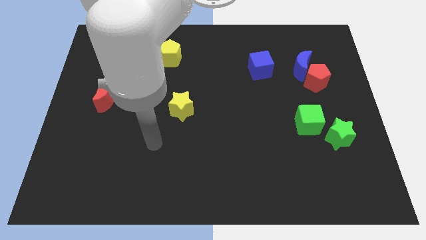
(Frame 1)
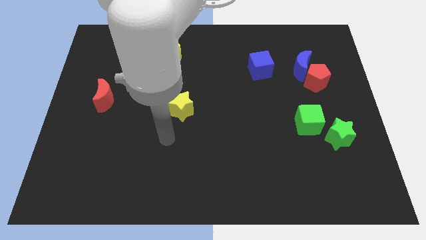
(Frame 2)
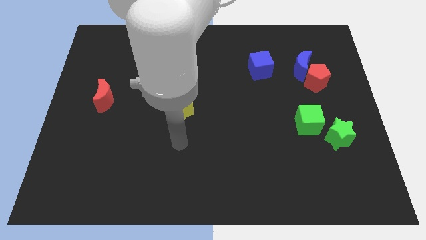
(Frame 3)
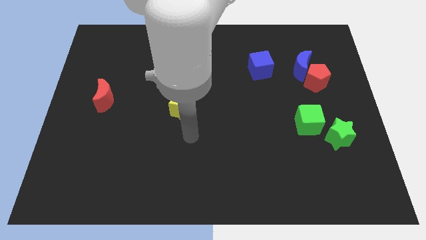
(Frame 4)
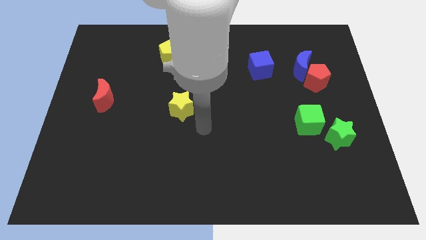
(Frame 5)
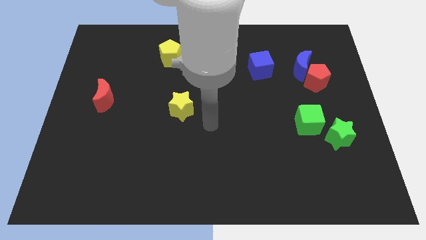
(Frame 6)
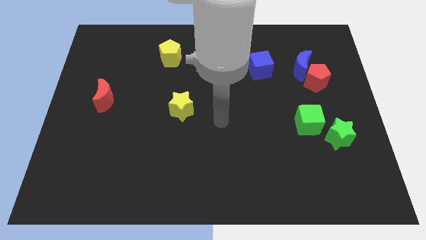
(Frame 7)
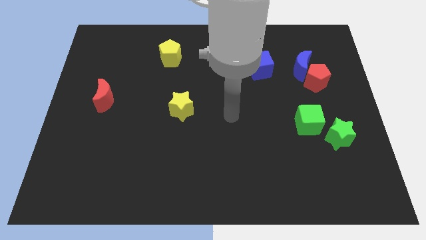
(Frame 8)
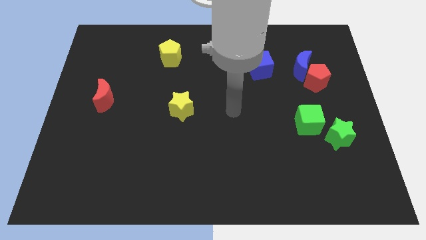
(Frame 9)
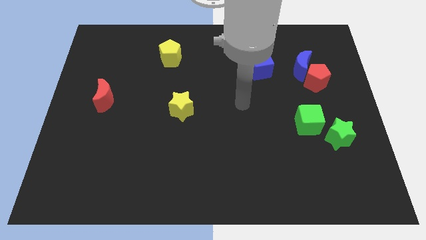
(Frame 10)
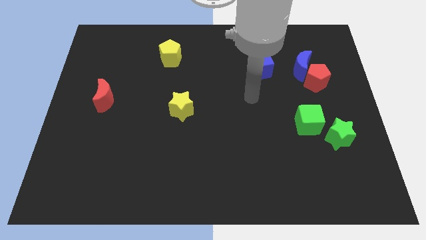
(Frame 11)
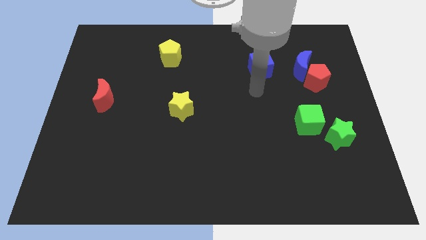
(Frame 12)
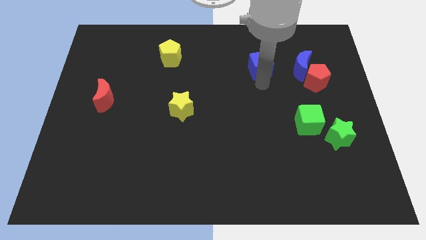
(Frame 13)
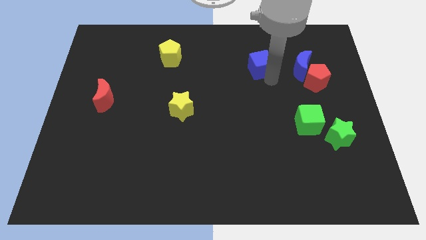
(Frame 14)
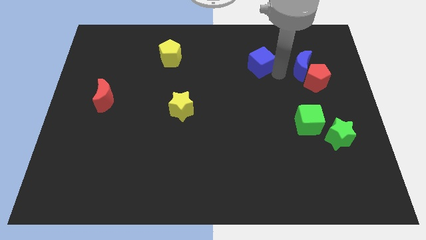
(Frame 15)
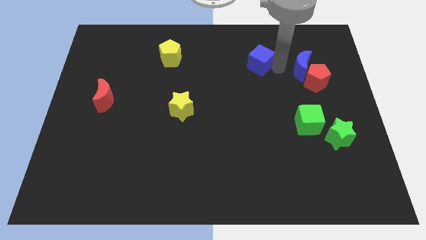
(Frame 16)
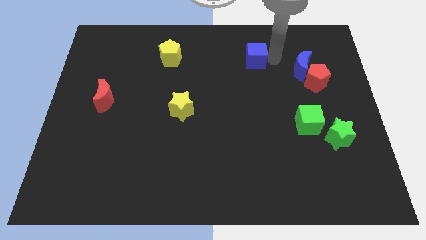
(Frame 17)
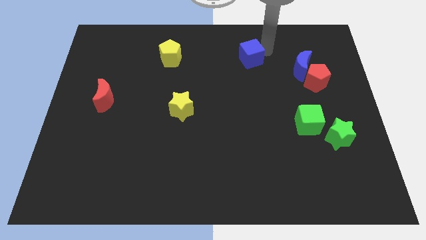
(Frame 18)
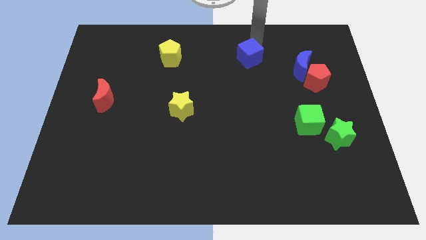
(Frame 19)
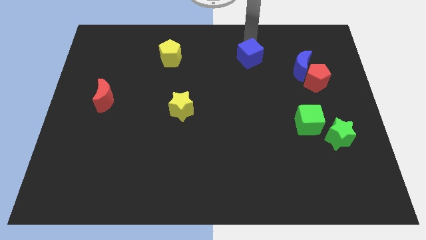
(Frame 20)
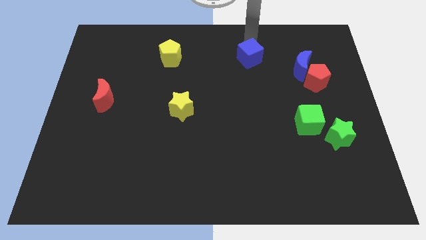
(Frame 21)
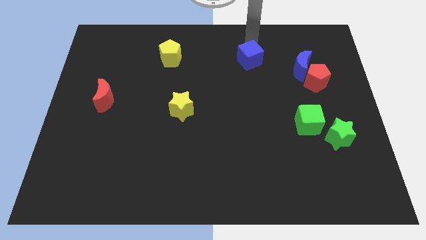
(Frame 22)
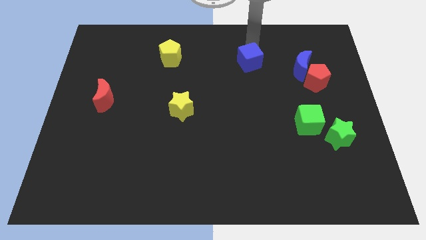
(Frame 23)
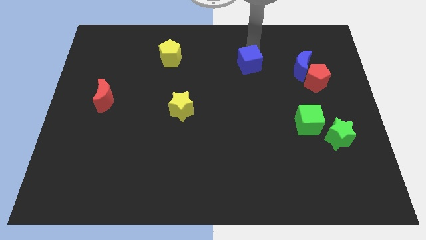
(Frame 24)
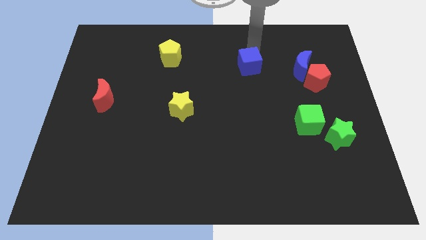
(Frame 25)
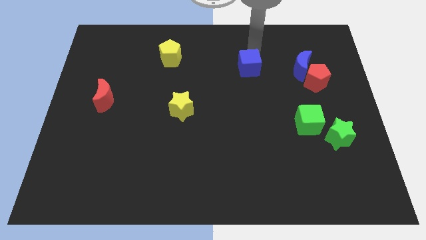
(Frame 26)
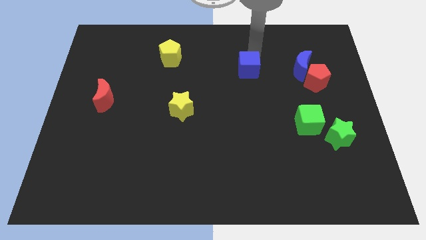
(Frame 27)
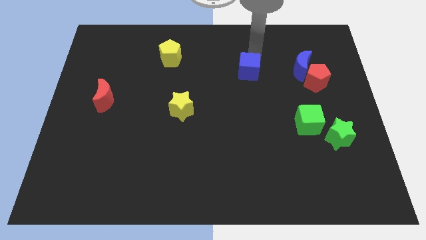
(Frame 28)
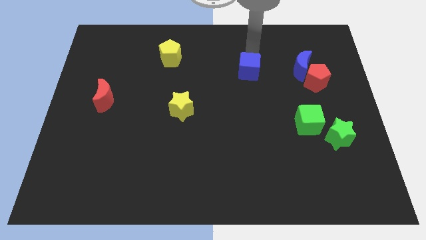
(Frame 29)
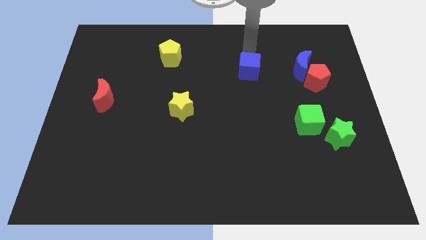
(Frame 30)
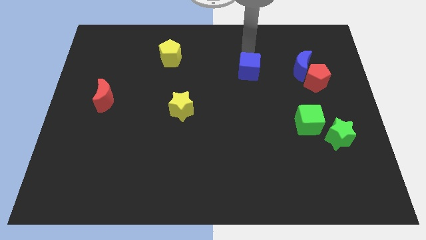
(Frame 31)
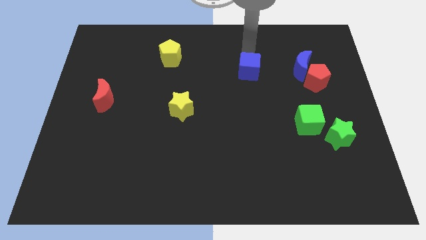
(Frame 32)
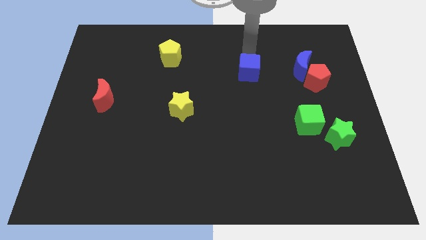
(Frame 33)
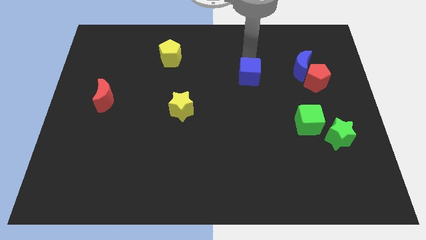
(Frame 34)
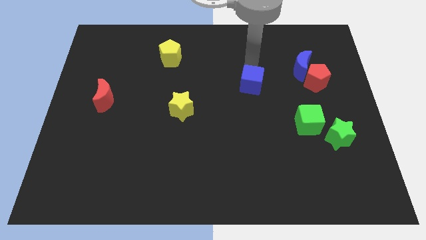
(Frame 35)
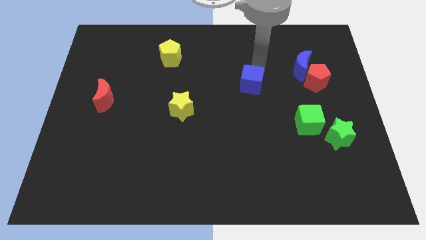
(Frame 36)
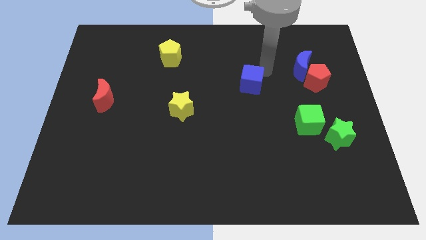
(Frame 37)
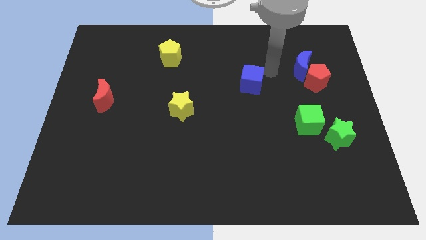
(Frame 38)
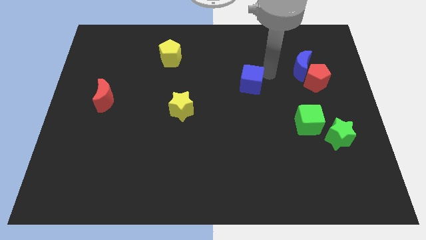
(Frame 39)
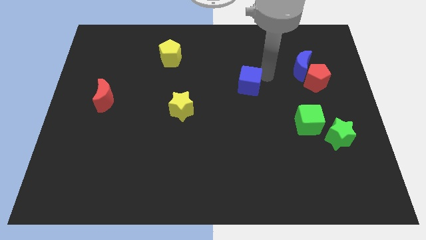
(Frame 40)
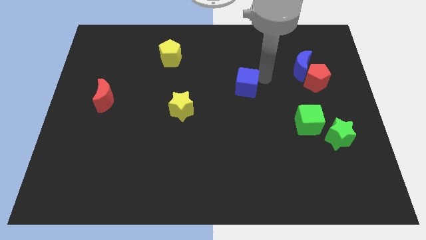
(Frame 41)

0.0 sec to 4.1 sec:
slightly slide the blue cube down and to the left

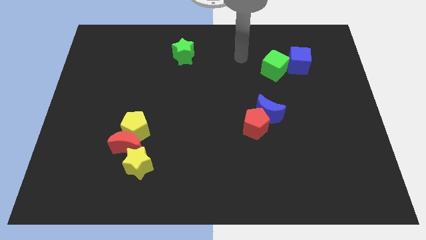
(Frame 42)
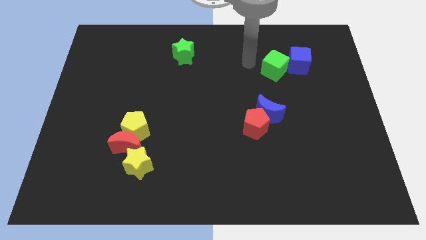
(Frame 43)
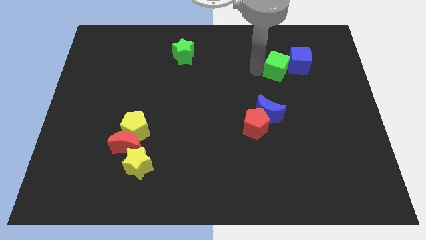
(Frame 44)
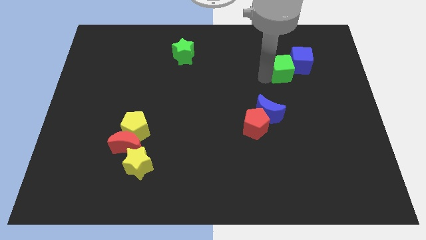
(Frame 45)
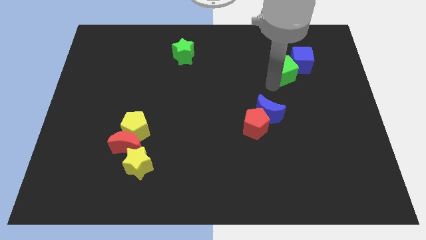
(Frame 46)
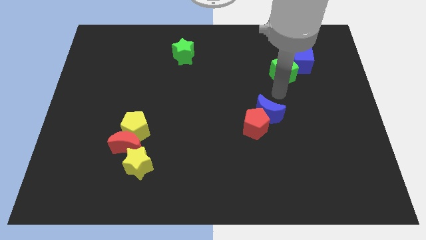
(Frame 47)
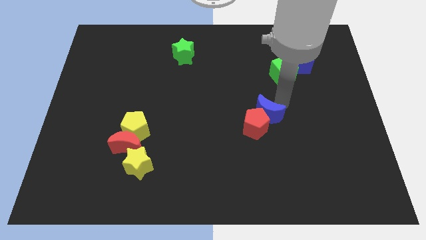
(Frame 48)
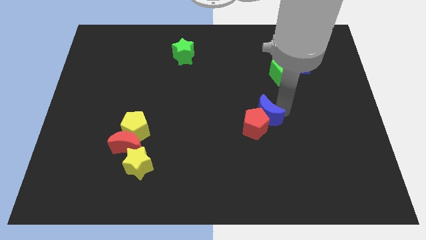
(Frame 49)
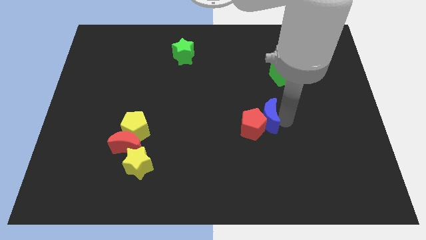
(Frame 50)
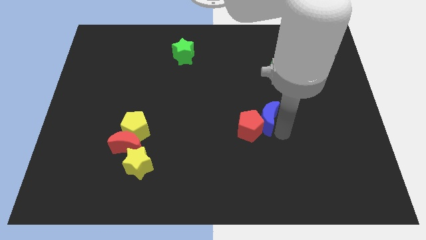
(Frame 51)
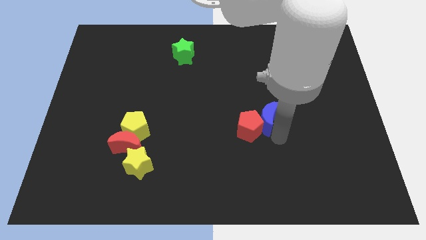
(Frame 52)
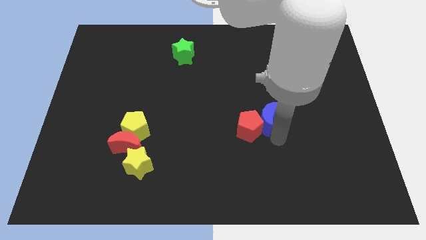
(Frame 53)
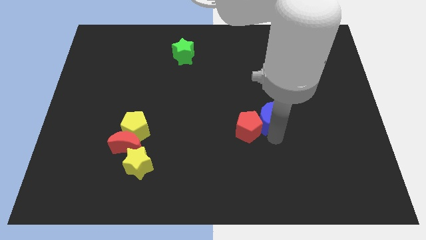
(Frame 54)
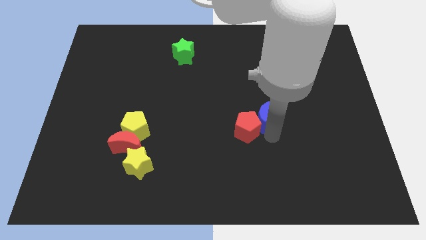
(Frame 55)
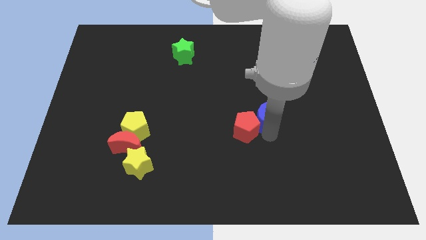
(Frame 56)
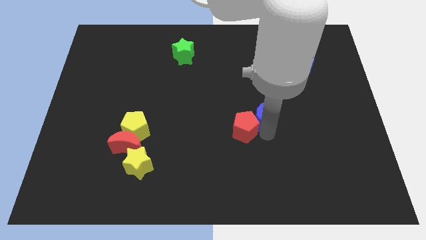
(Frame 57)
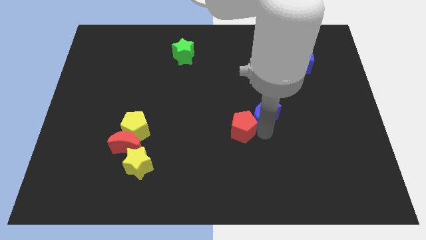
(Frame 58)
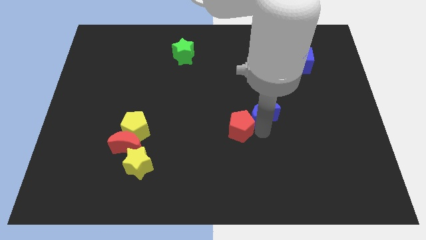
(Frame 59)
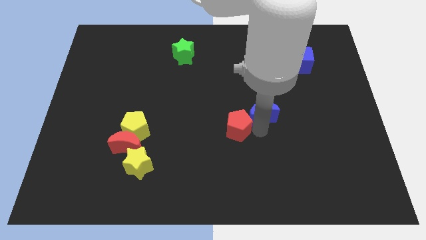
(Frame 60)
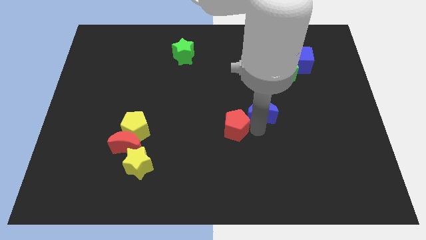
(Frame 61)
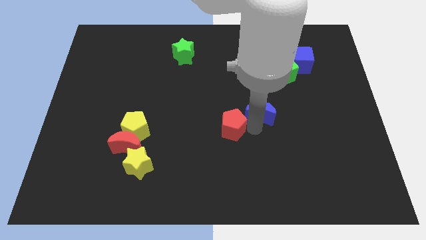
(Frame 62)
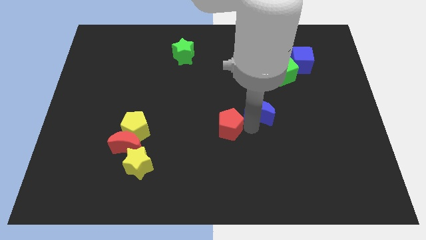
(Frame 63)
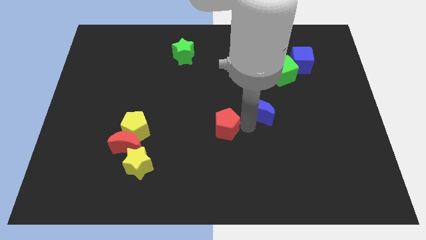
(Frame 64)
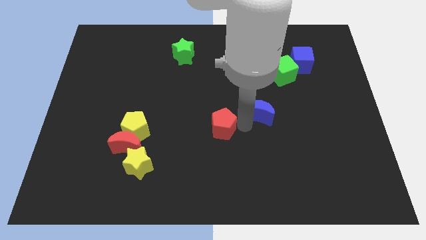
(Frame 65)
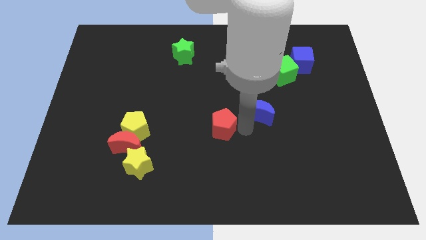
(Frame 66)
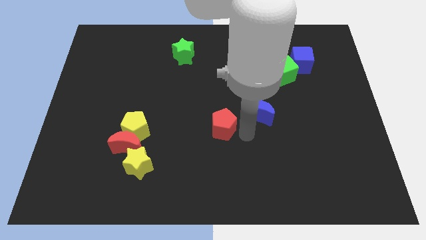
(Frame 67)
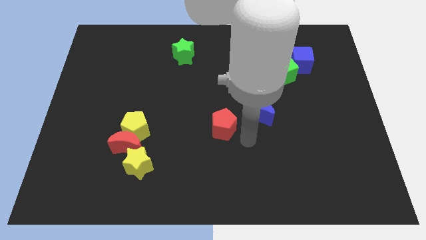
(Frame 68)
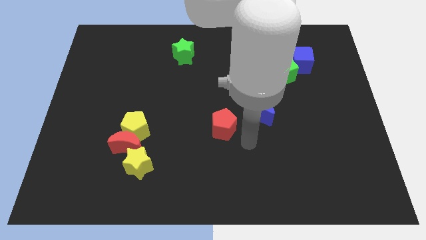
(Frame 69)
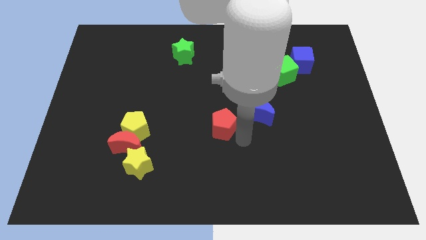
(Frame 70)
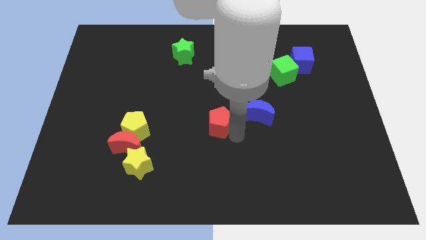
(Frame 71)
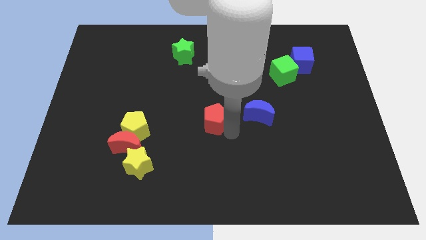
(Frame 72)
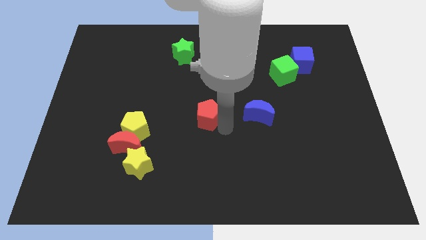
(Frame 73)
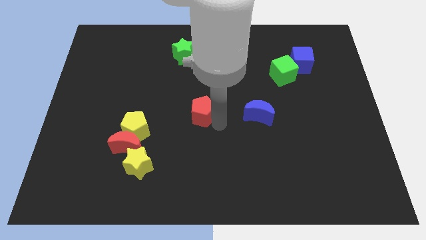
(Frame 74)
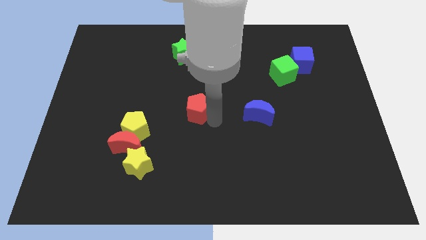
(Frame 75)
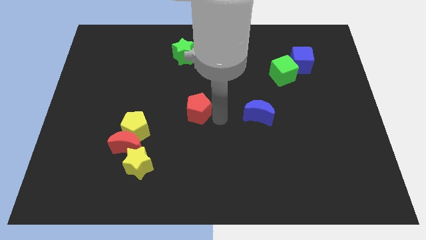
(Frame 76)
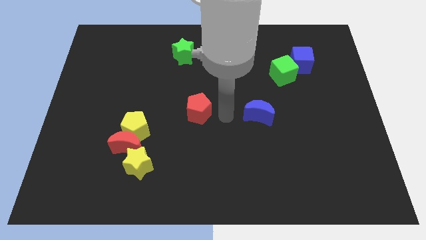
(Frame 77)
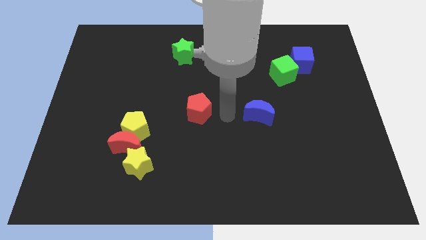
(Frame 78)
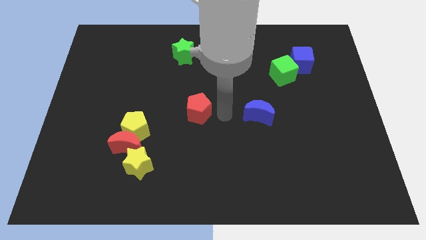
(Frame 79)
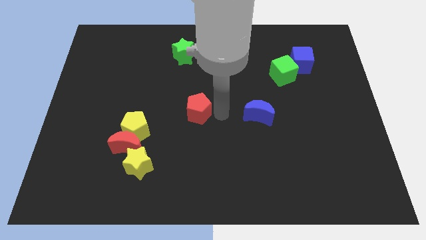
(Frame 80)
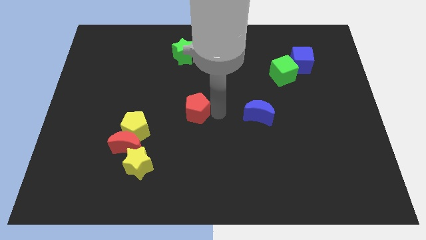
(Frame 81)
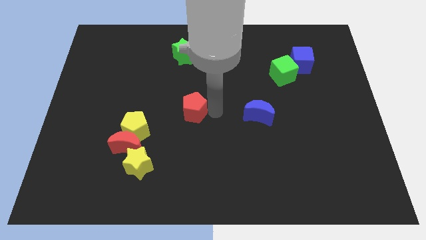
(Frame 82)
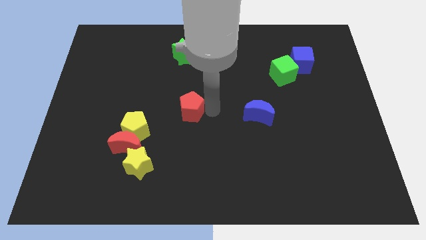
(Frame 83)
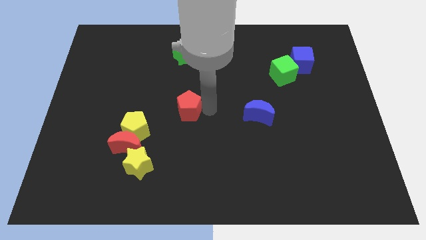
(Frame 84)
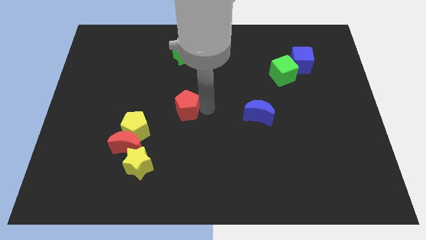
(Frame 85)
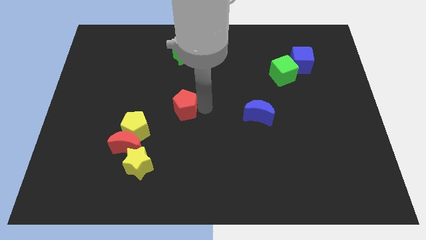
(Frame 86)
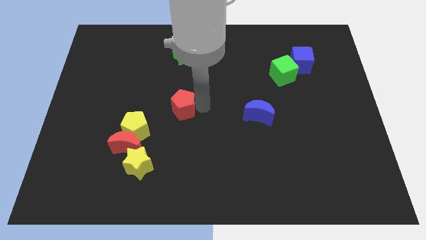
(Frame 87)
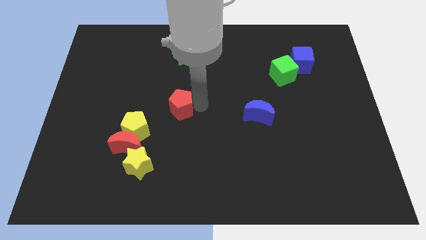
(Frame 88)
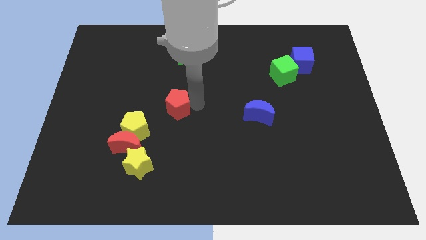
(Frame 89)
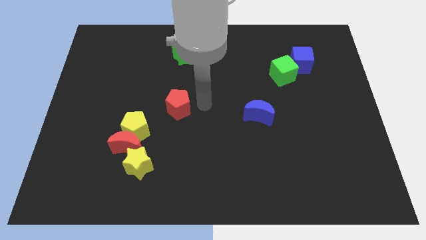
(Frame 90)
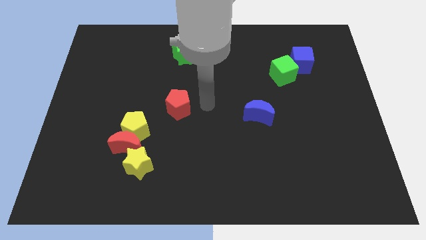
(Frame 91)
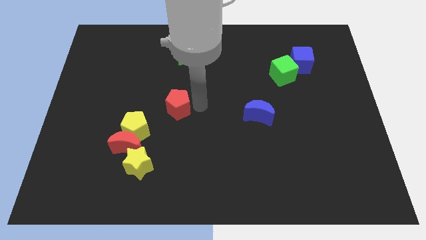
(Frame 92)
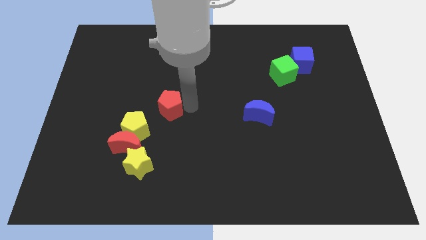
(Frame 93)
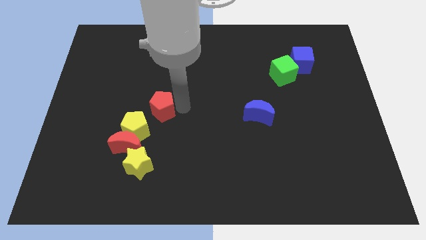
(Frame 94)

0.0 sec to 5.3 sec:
push the red pentagon left
